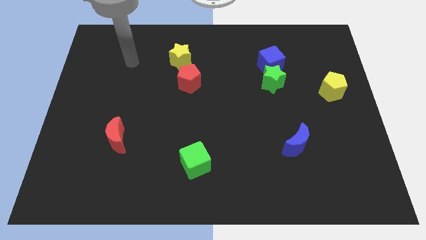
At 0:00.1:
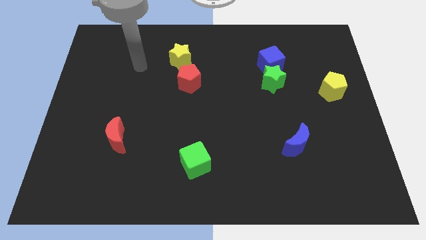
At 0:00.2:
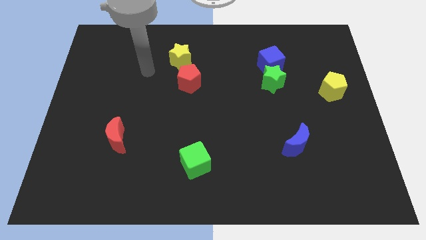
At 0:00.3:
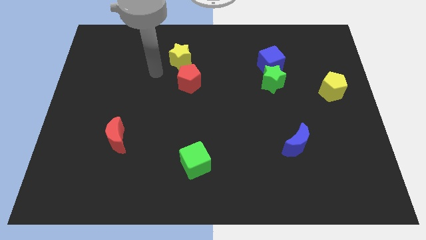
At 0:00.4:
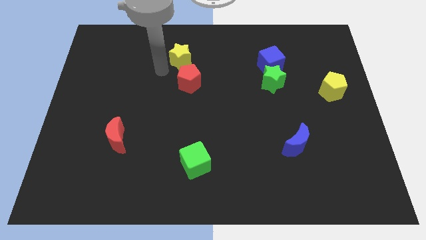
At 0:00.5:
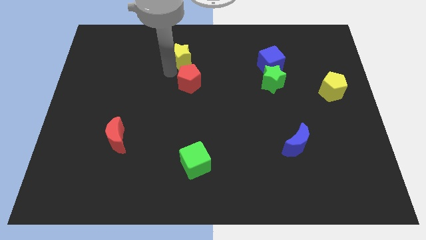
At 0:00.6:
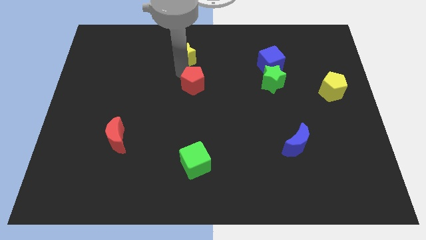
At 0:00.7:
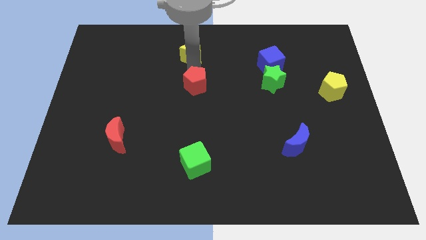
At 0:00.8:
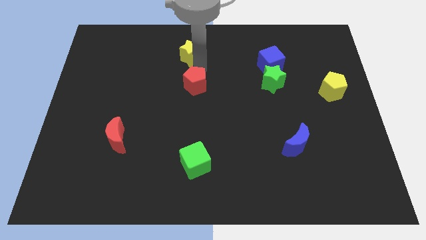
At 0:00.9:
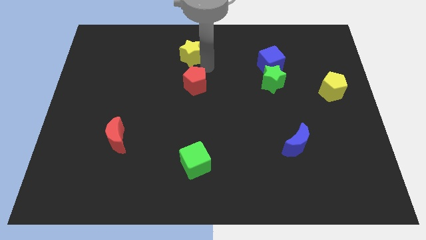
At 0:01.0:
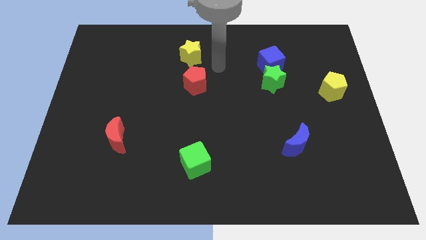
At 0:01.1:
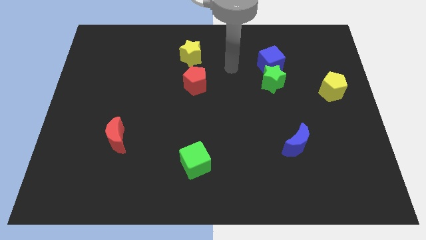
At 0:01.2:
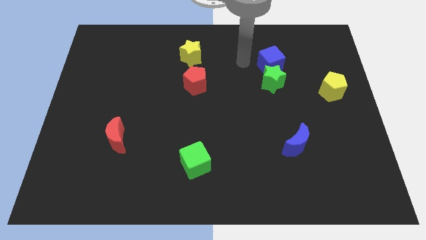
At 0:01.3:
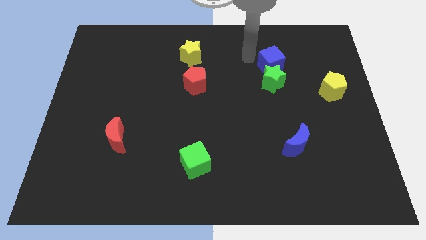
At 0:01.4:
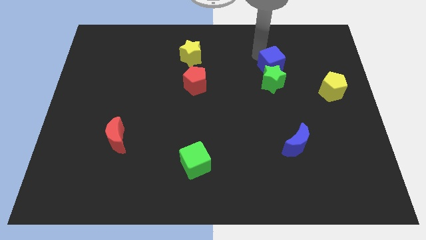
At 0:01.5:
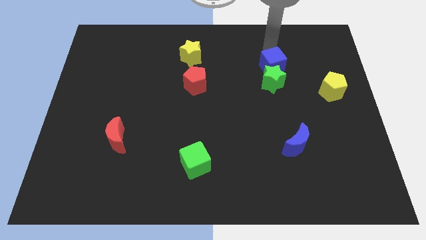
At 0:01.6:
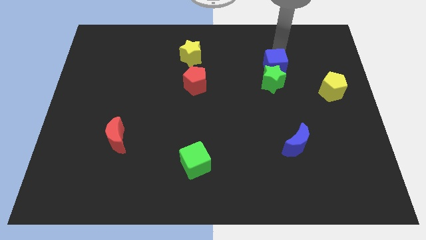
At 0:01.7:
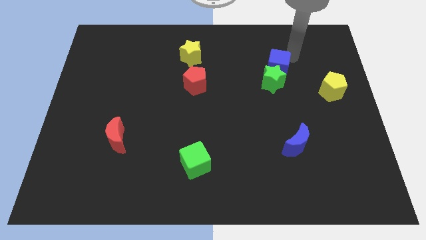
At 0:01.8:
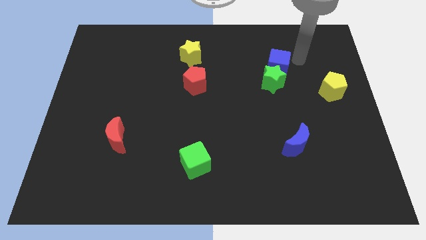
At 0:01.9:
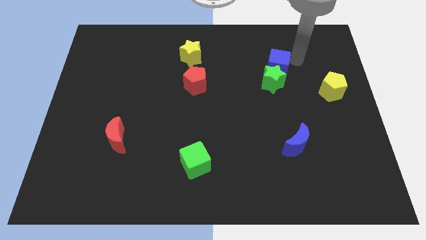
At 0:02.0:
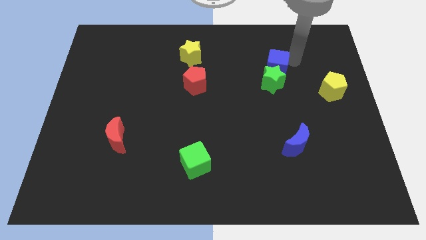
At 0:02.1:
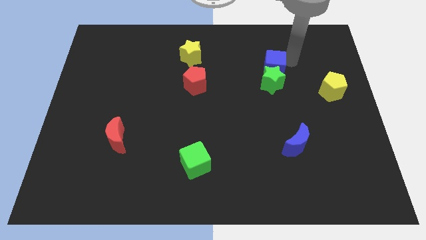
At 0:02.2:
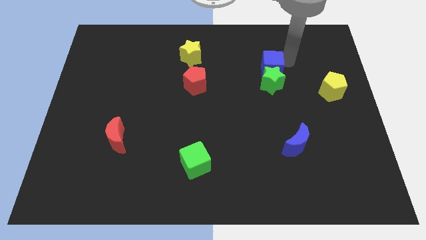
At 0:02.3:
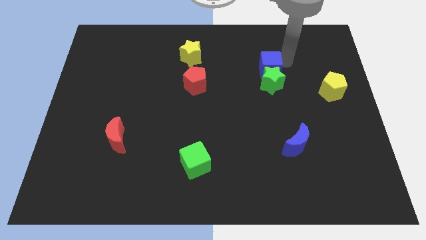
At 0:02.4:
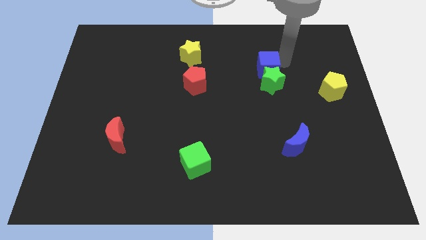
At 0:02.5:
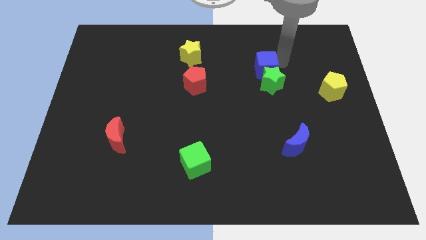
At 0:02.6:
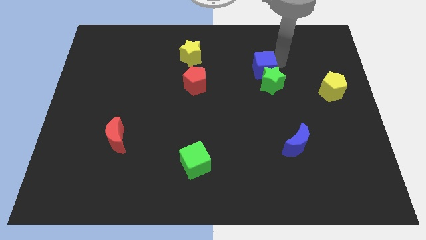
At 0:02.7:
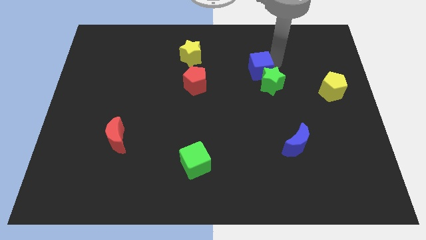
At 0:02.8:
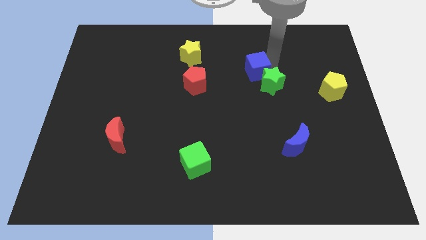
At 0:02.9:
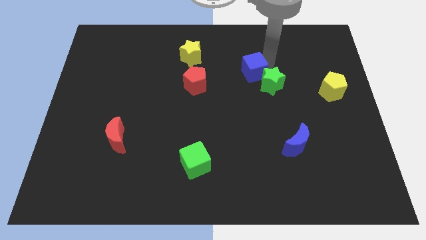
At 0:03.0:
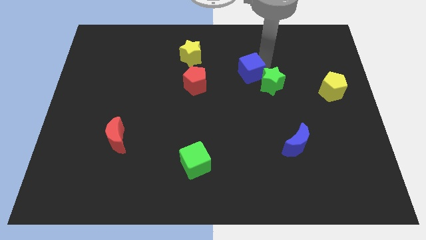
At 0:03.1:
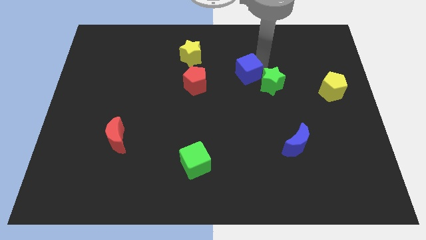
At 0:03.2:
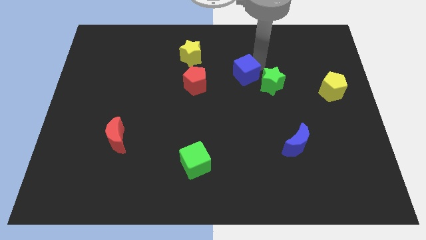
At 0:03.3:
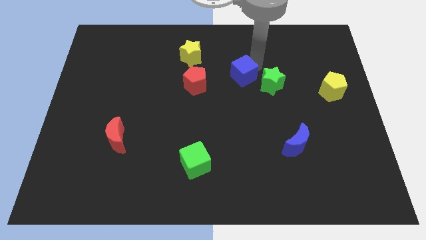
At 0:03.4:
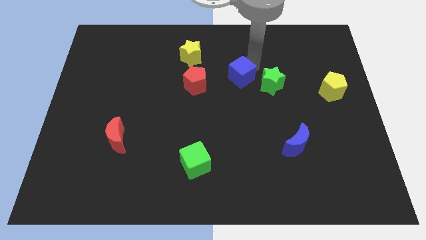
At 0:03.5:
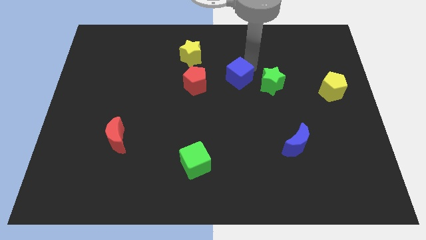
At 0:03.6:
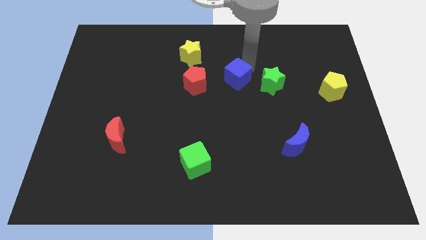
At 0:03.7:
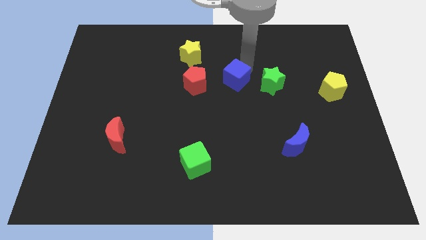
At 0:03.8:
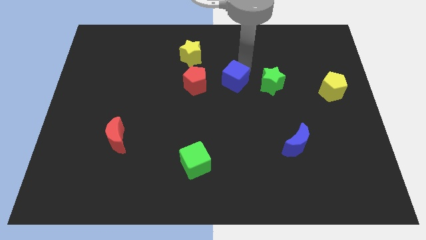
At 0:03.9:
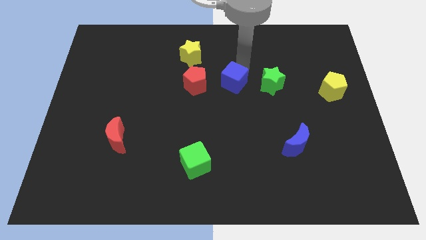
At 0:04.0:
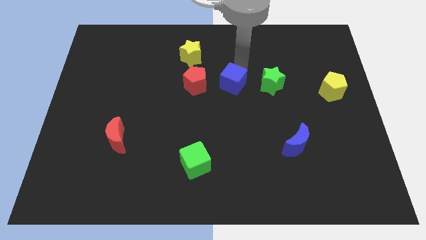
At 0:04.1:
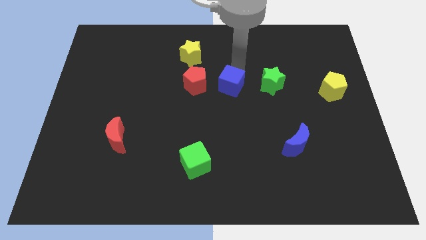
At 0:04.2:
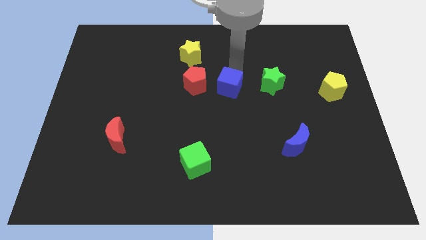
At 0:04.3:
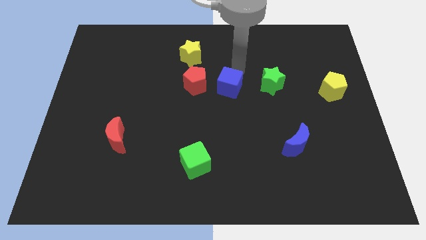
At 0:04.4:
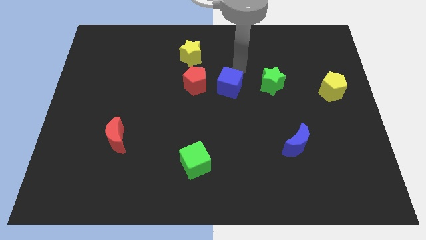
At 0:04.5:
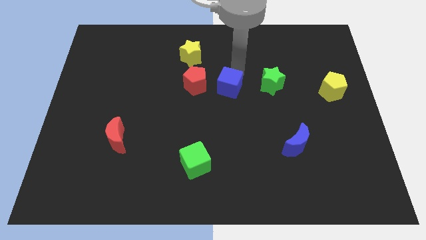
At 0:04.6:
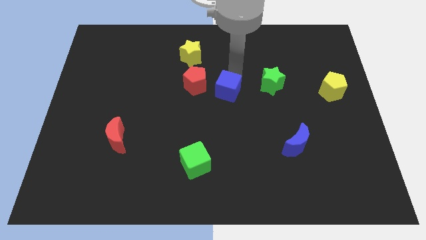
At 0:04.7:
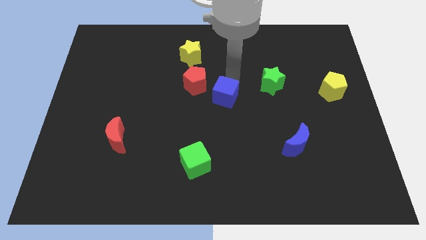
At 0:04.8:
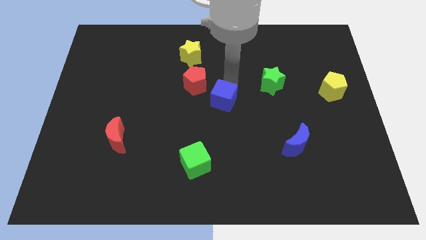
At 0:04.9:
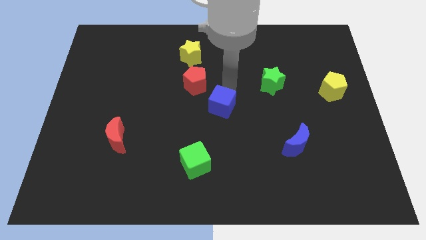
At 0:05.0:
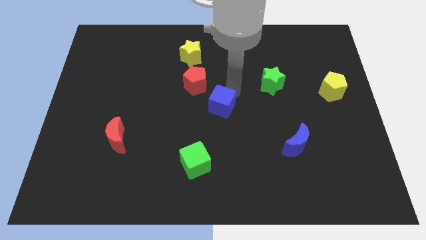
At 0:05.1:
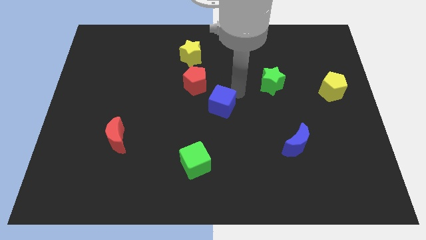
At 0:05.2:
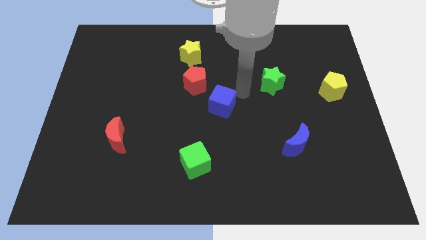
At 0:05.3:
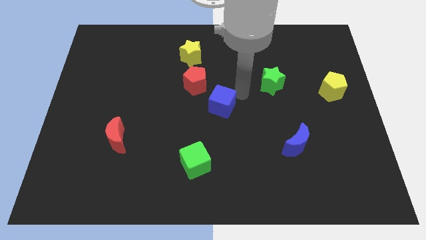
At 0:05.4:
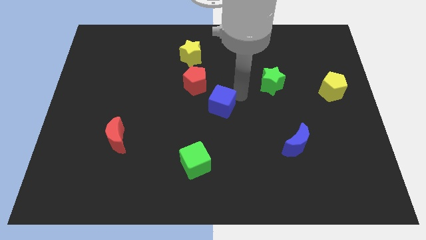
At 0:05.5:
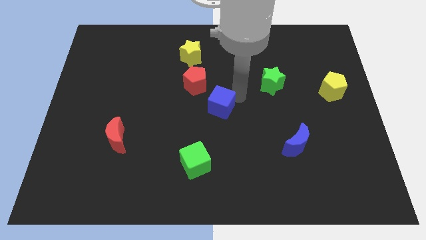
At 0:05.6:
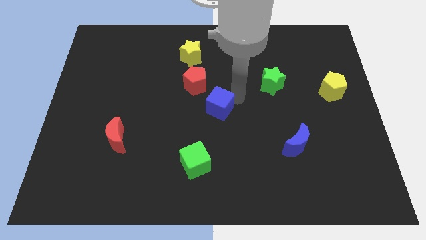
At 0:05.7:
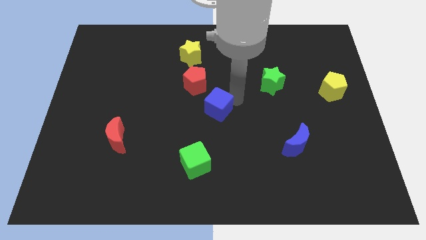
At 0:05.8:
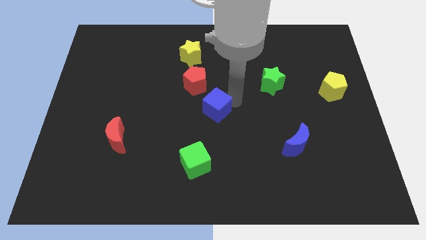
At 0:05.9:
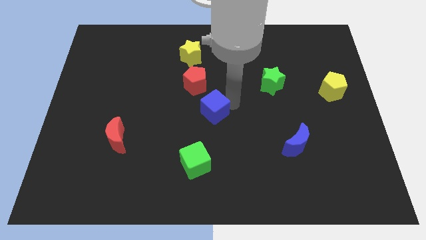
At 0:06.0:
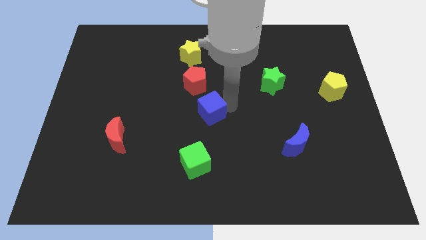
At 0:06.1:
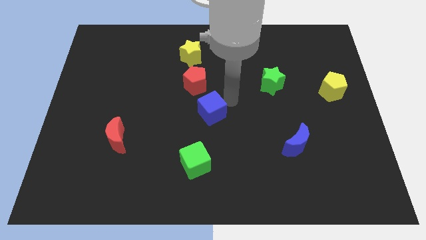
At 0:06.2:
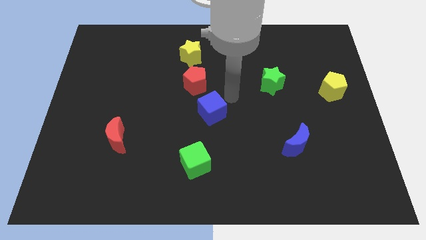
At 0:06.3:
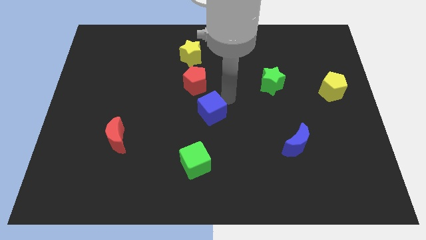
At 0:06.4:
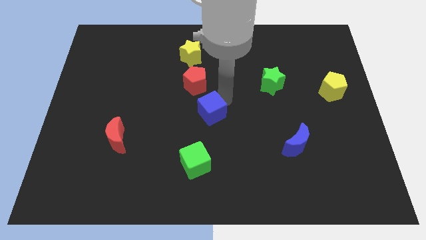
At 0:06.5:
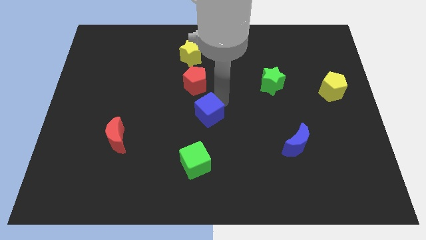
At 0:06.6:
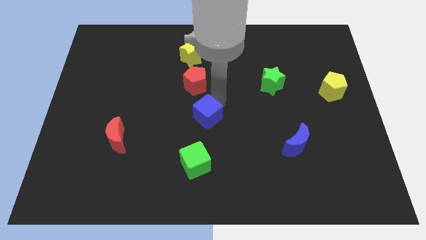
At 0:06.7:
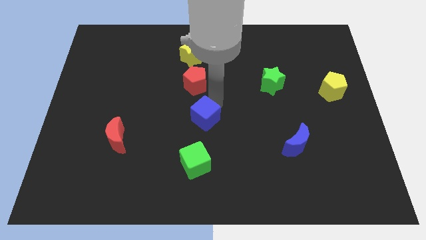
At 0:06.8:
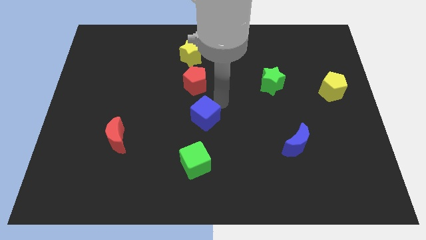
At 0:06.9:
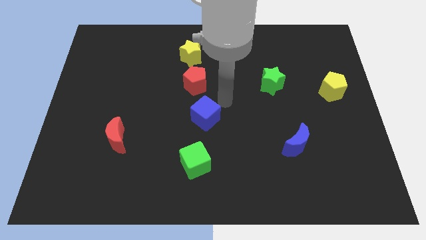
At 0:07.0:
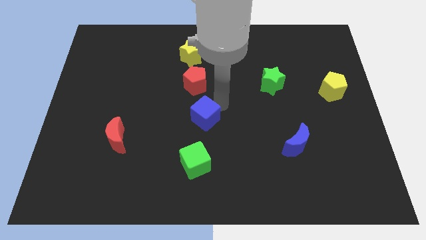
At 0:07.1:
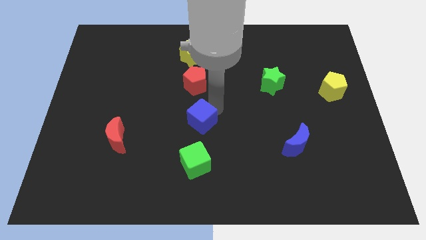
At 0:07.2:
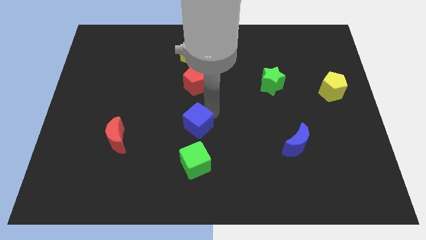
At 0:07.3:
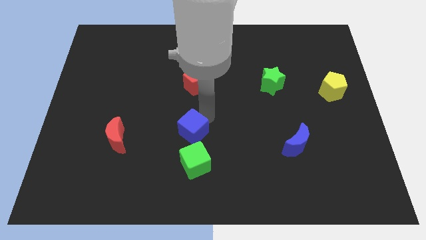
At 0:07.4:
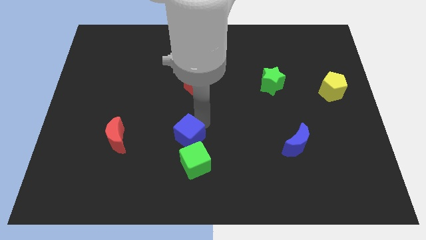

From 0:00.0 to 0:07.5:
put the blue cube to the top left side of the green cube
